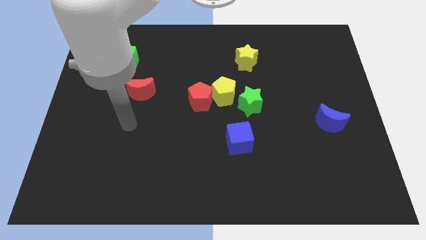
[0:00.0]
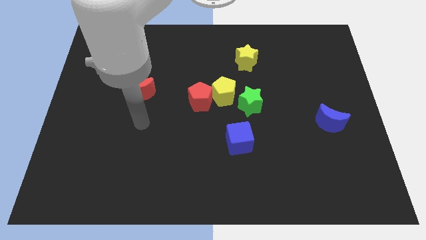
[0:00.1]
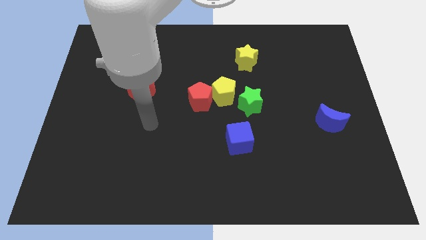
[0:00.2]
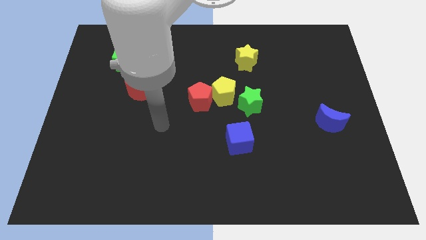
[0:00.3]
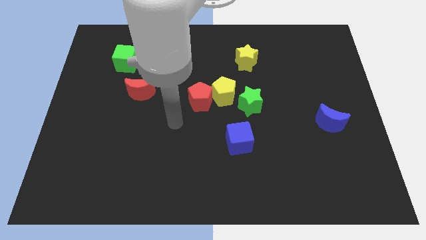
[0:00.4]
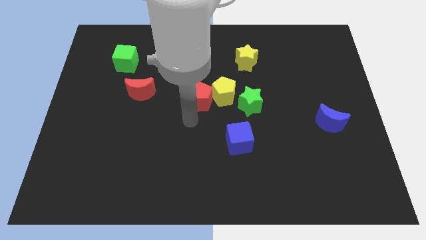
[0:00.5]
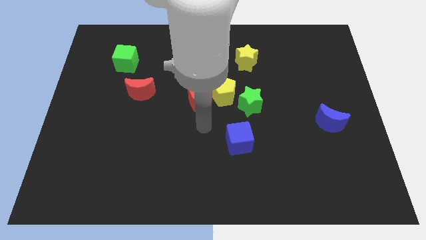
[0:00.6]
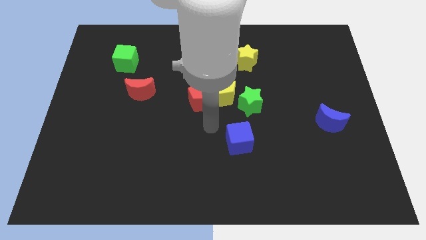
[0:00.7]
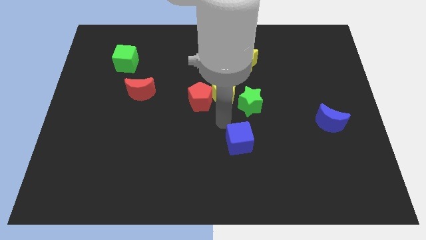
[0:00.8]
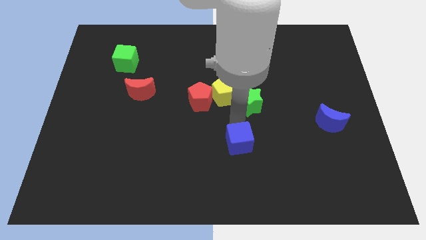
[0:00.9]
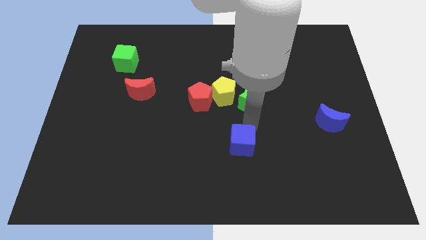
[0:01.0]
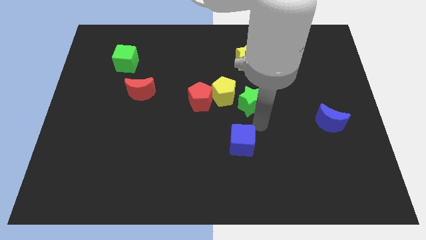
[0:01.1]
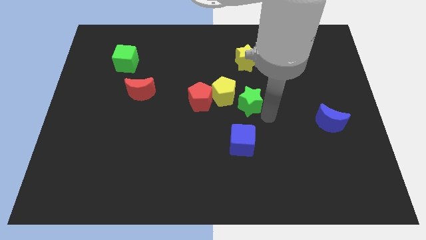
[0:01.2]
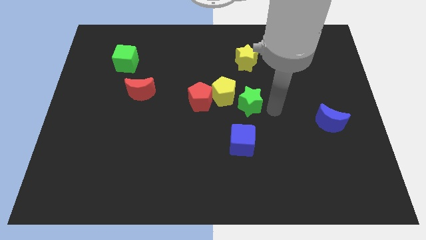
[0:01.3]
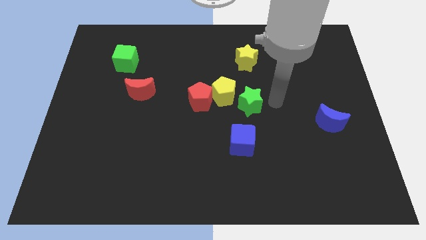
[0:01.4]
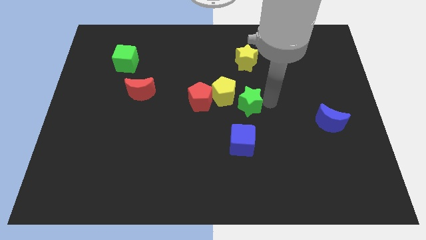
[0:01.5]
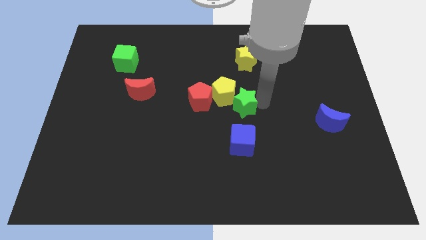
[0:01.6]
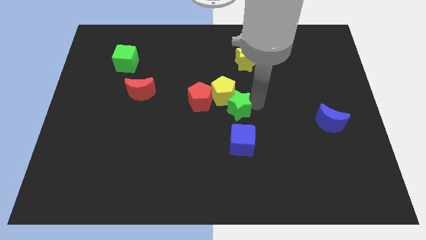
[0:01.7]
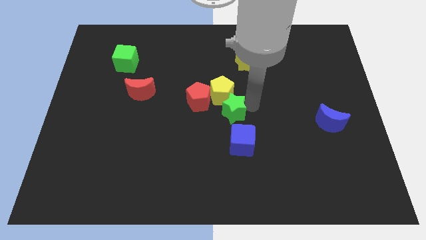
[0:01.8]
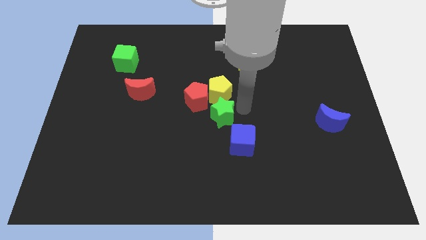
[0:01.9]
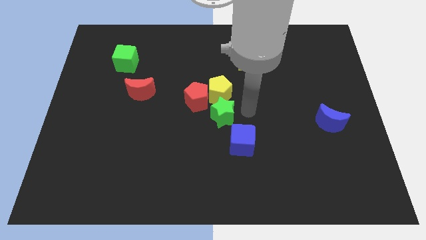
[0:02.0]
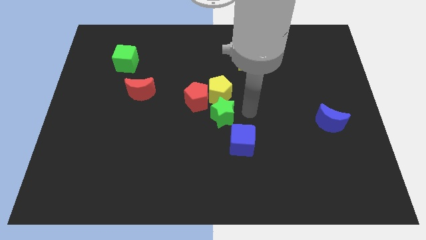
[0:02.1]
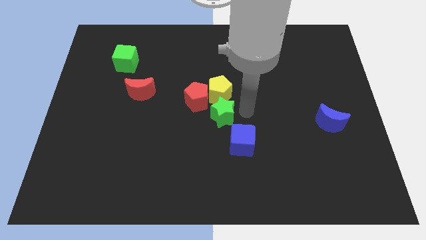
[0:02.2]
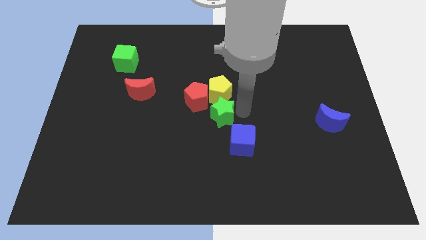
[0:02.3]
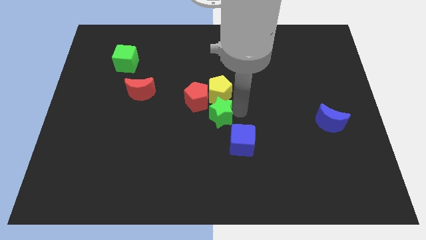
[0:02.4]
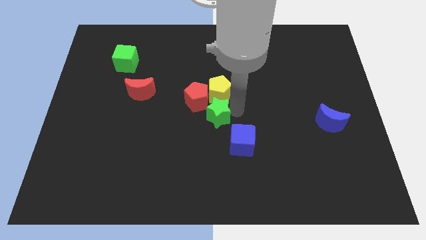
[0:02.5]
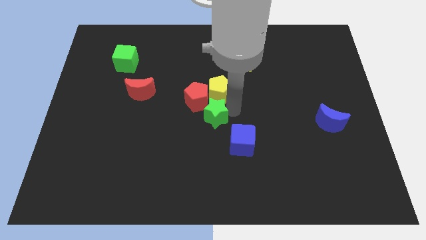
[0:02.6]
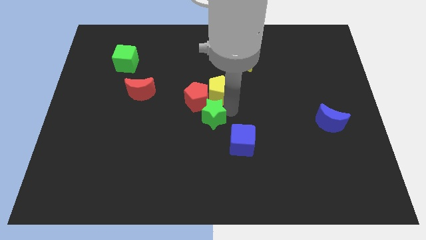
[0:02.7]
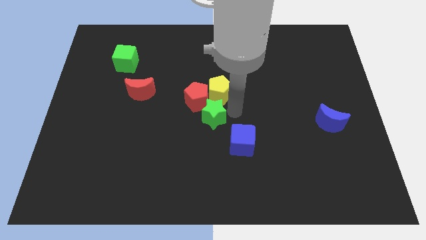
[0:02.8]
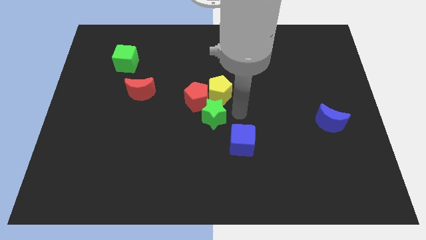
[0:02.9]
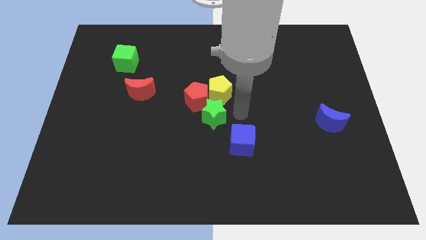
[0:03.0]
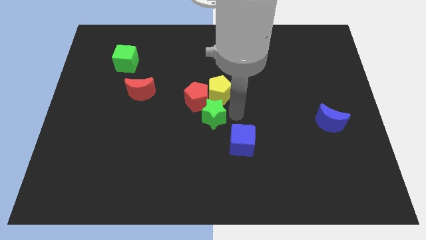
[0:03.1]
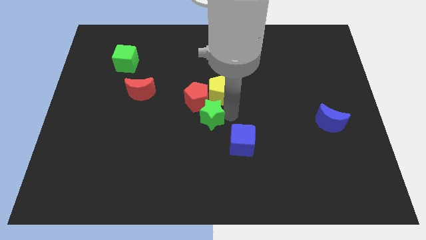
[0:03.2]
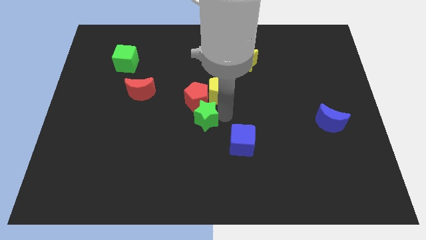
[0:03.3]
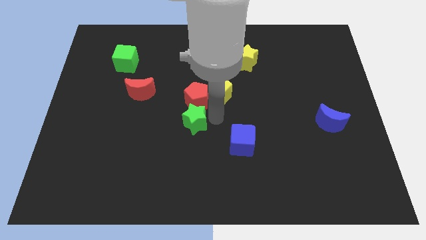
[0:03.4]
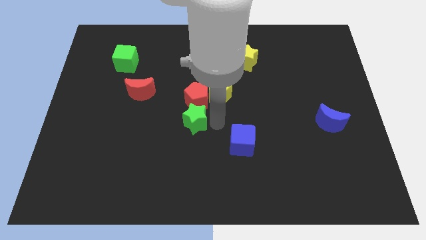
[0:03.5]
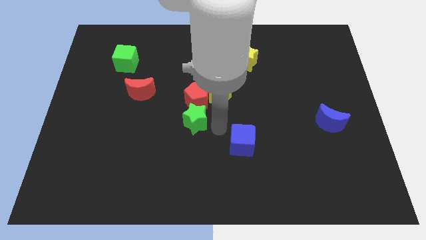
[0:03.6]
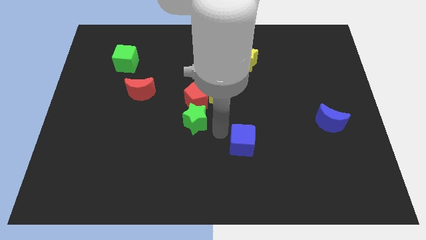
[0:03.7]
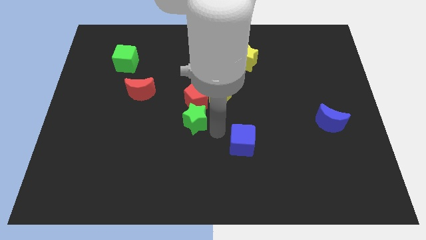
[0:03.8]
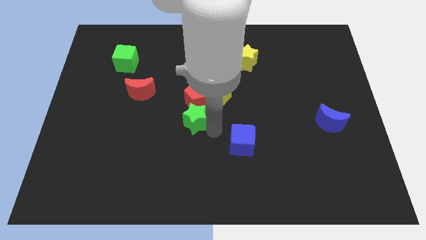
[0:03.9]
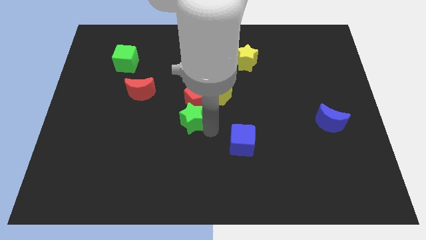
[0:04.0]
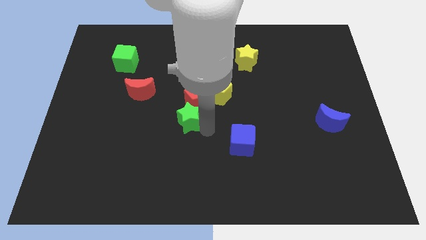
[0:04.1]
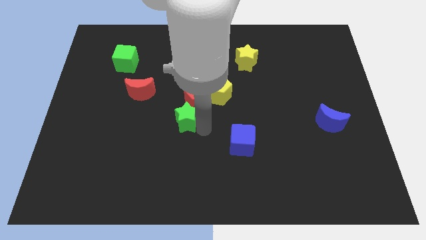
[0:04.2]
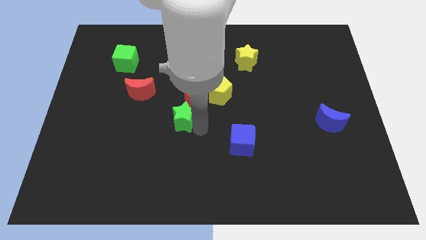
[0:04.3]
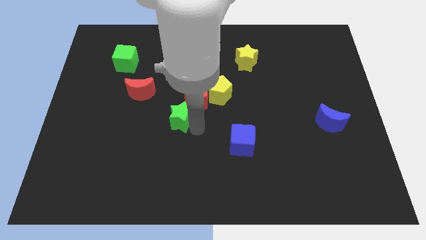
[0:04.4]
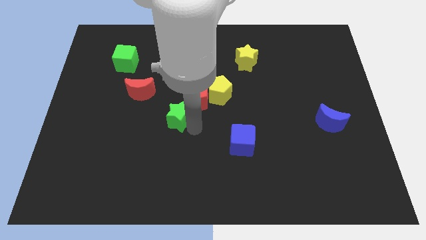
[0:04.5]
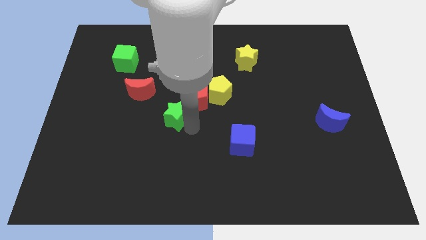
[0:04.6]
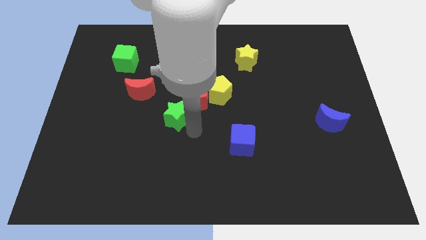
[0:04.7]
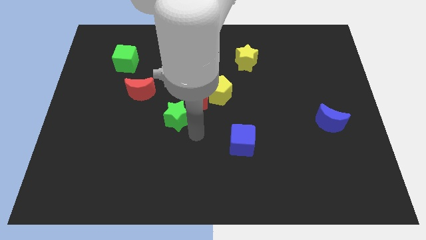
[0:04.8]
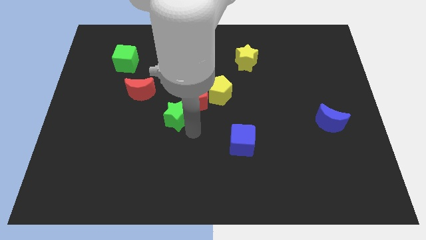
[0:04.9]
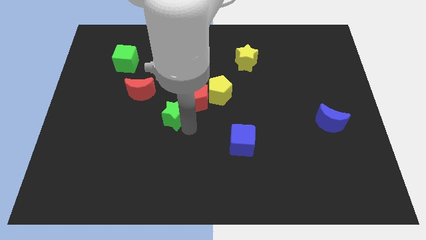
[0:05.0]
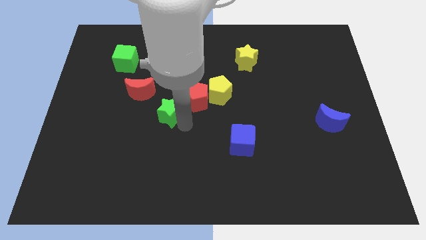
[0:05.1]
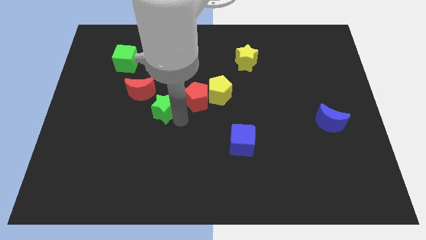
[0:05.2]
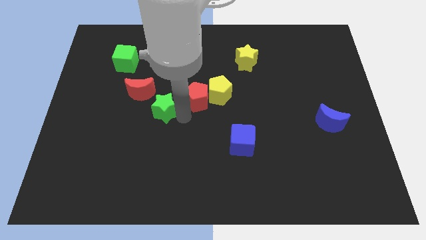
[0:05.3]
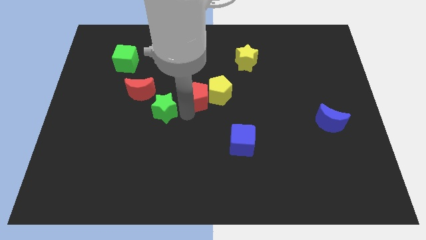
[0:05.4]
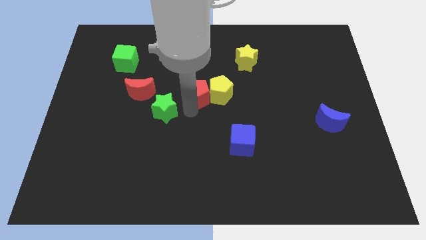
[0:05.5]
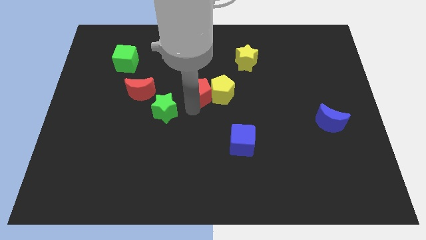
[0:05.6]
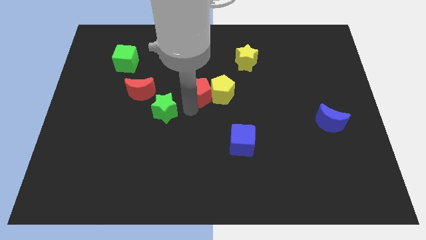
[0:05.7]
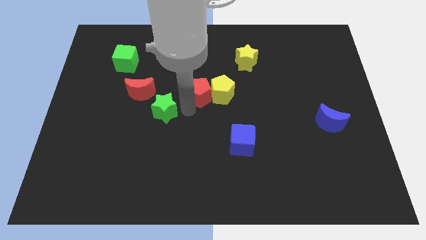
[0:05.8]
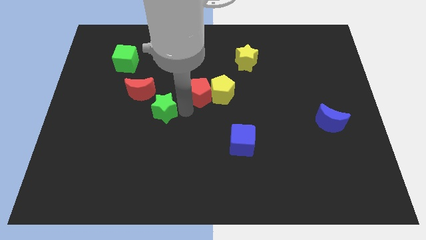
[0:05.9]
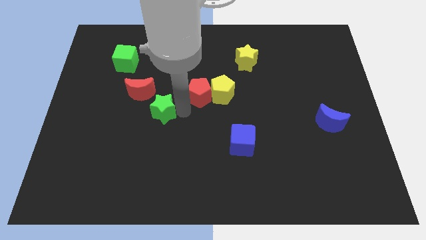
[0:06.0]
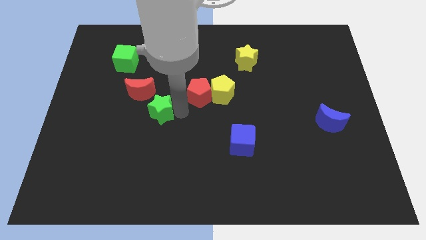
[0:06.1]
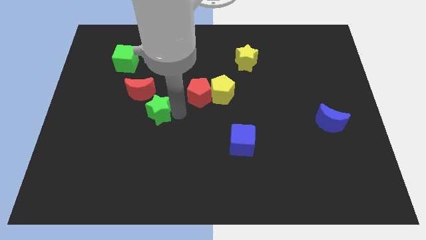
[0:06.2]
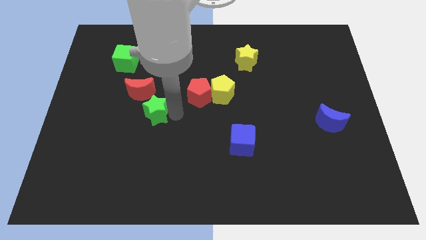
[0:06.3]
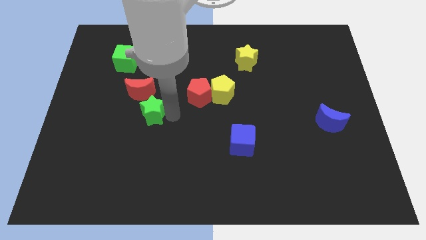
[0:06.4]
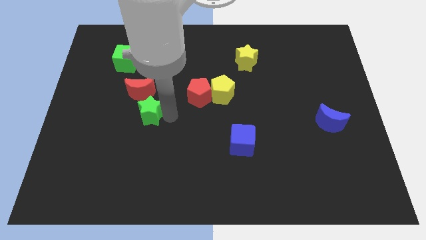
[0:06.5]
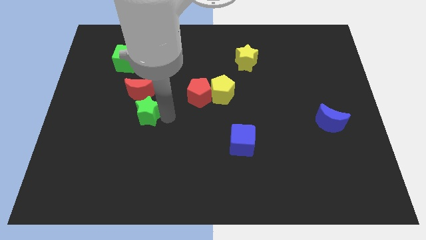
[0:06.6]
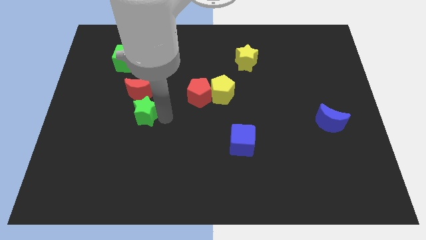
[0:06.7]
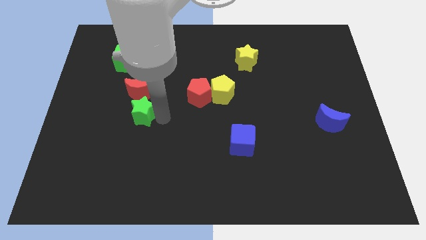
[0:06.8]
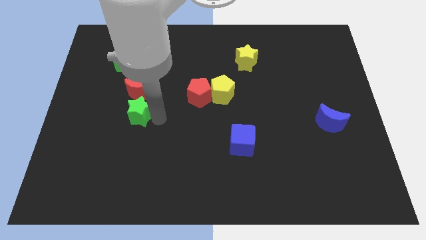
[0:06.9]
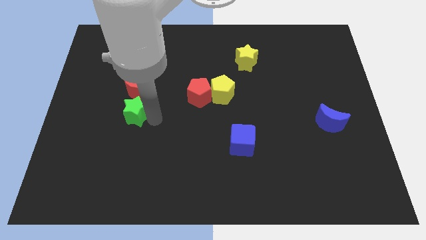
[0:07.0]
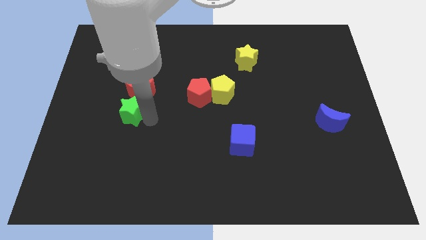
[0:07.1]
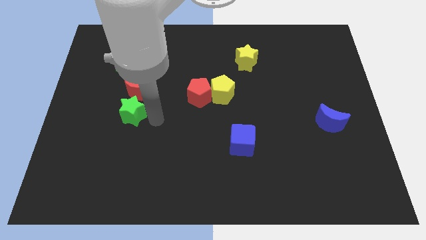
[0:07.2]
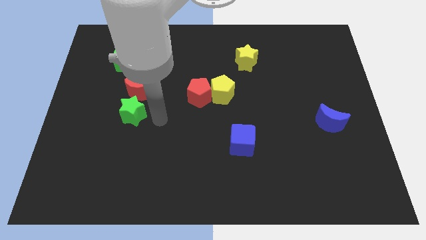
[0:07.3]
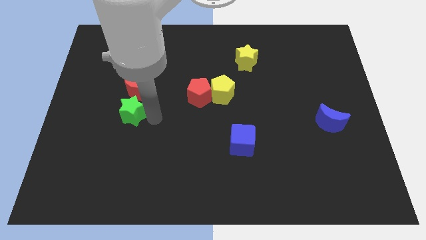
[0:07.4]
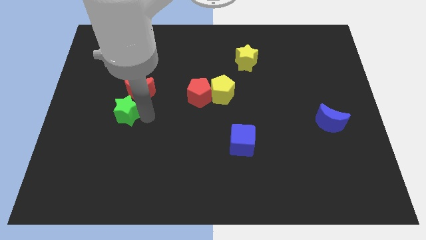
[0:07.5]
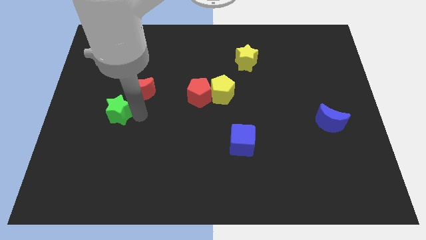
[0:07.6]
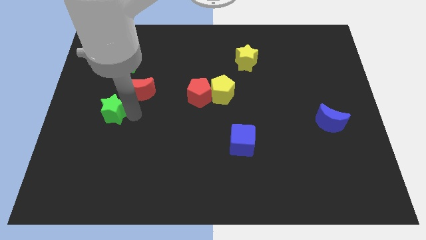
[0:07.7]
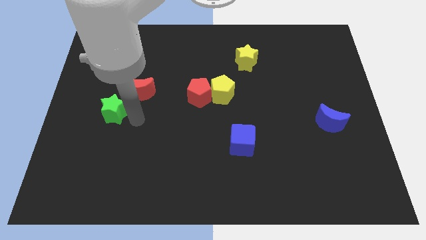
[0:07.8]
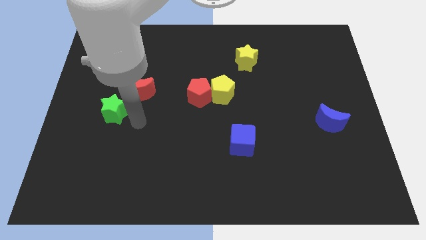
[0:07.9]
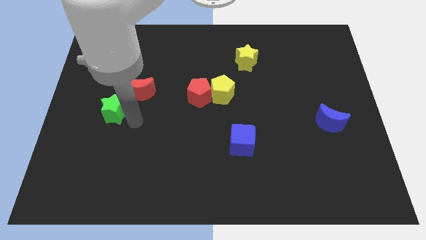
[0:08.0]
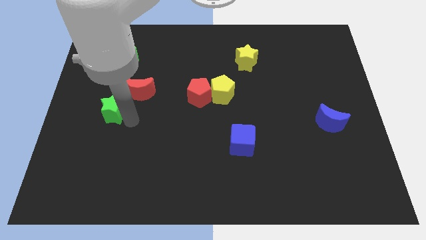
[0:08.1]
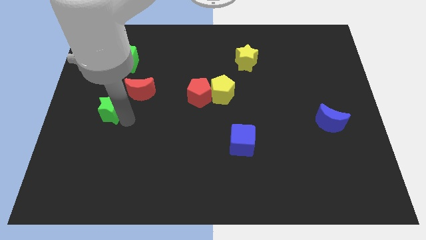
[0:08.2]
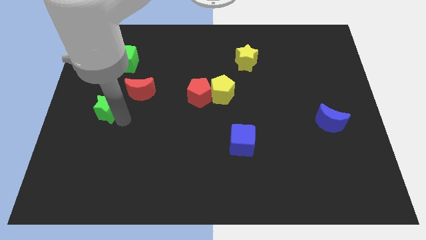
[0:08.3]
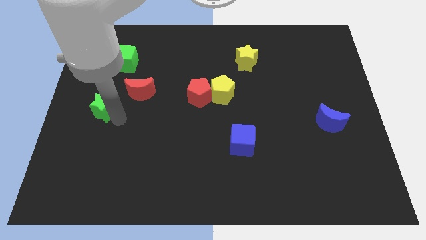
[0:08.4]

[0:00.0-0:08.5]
push the green star to the left side of the board
